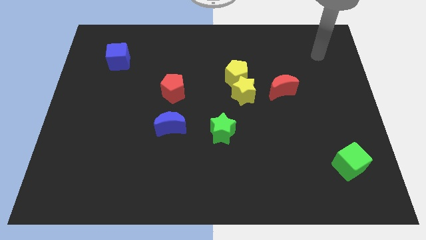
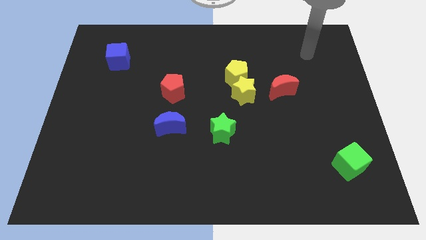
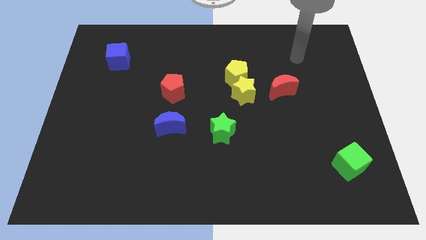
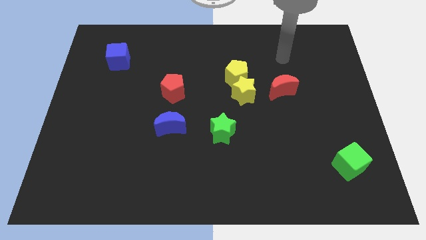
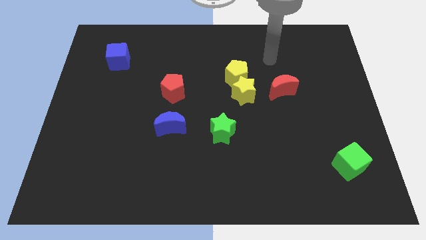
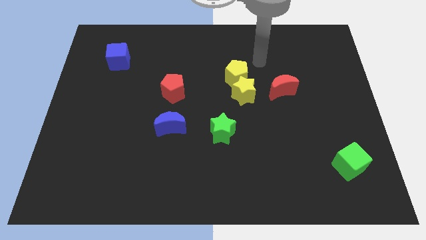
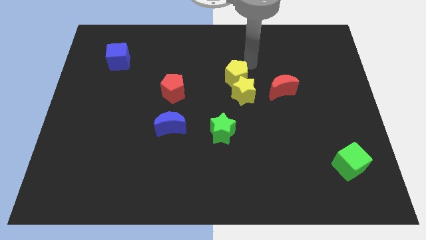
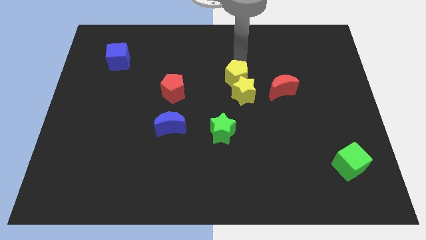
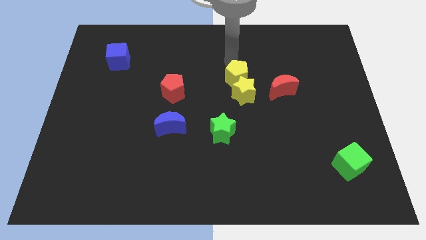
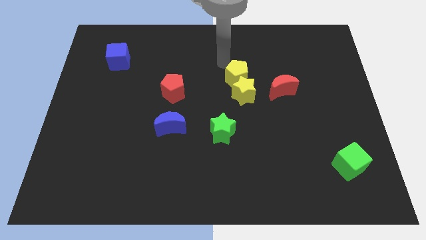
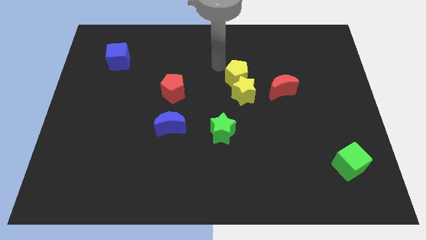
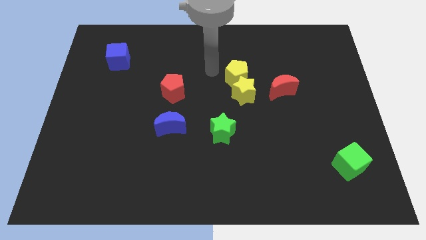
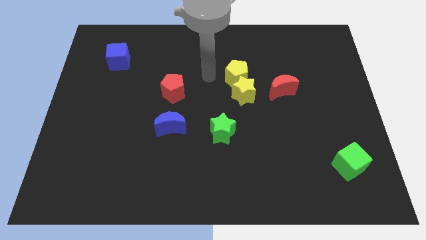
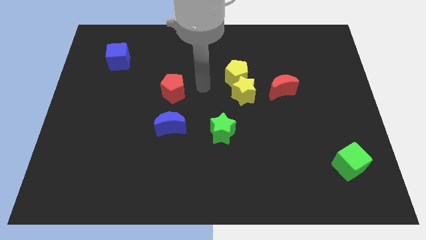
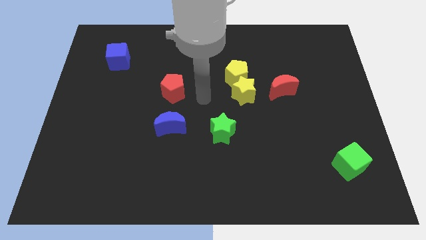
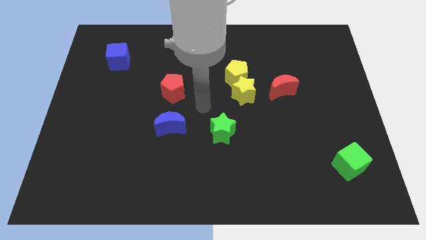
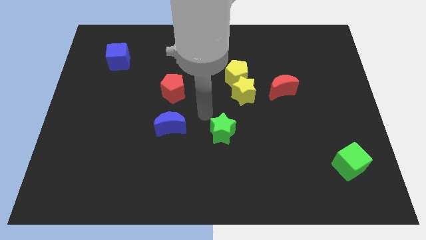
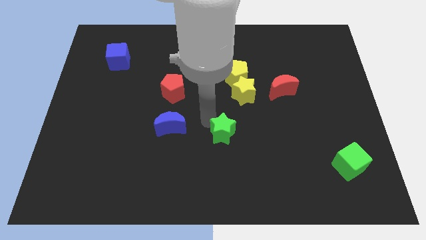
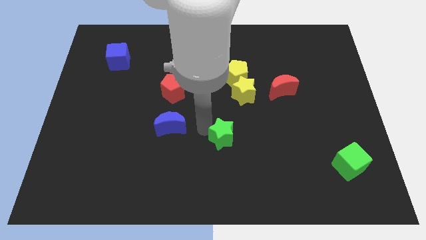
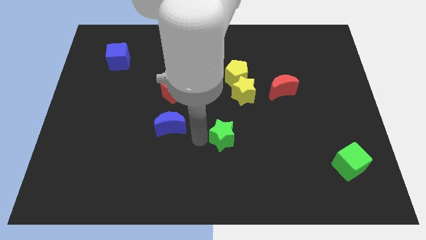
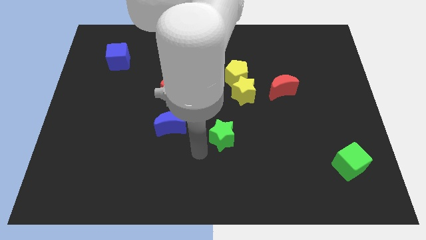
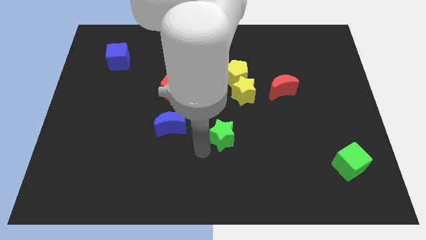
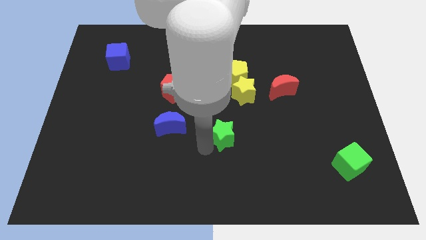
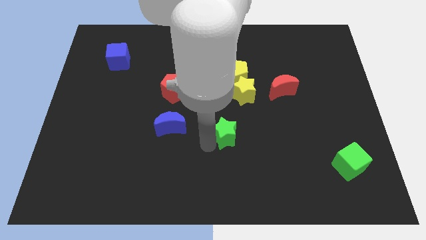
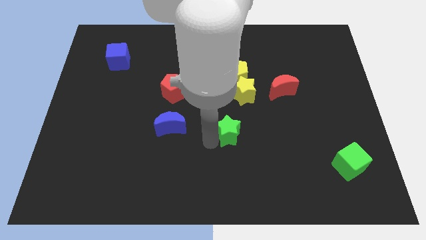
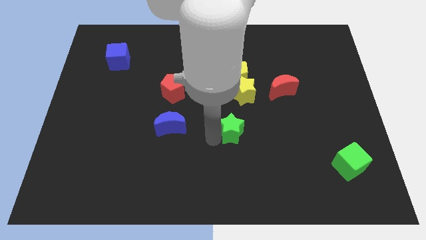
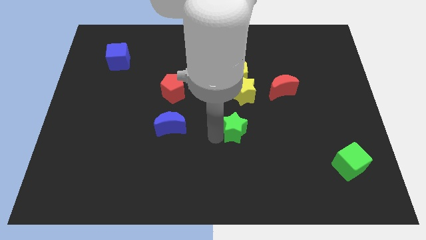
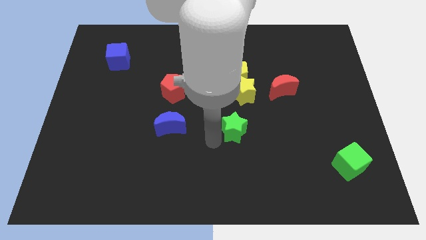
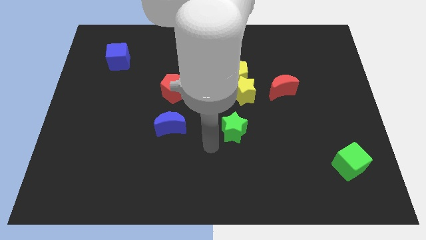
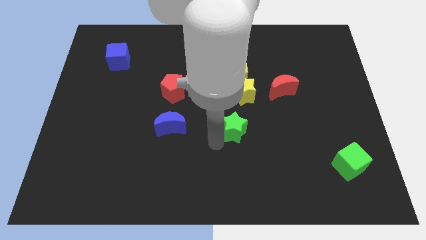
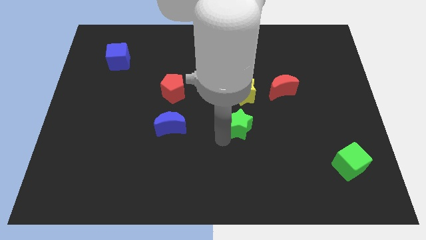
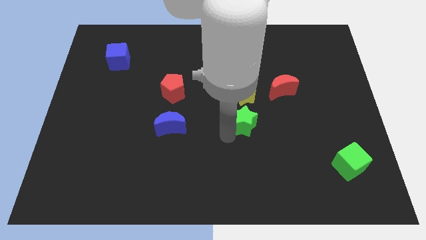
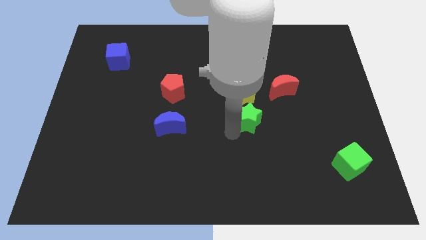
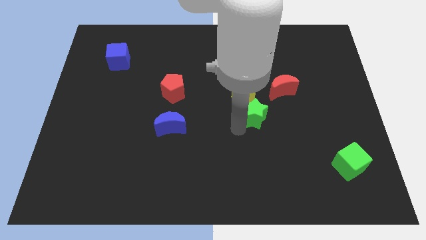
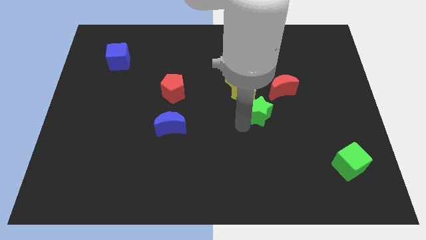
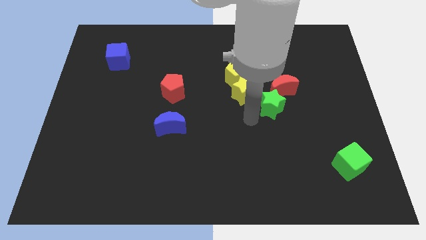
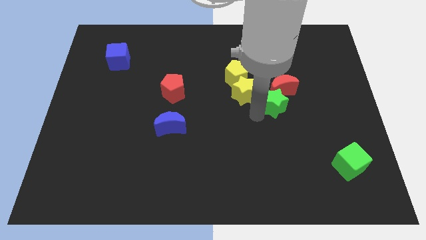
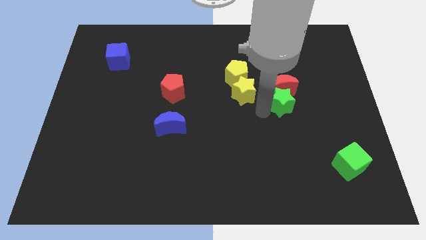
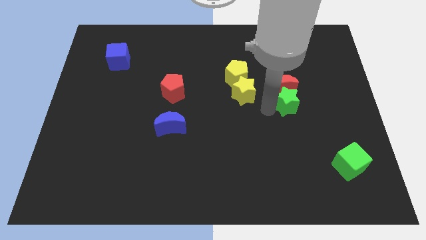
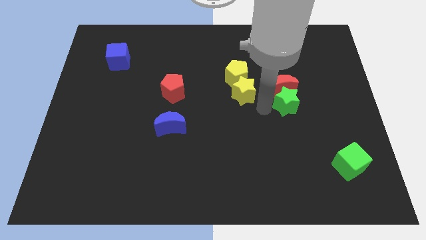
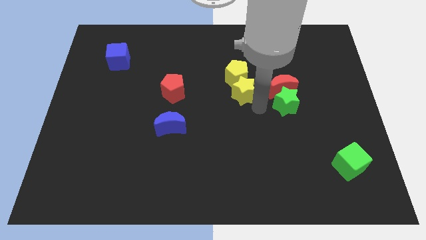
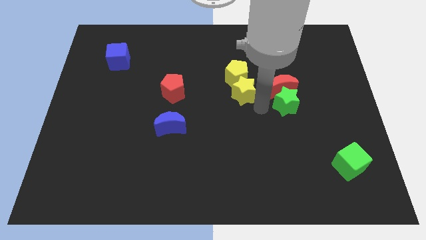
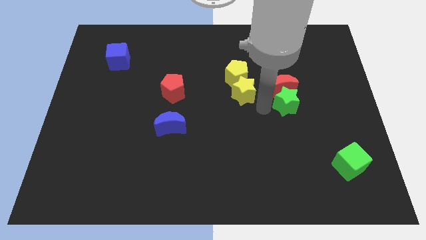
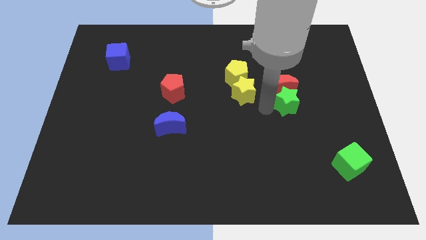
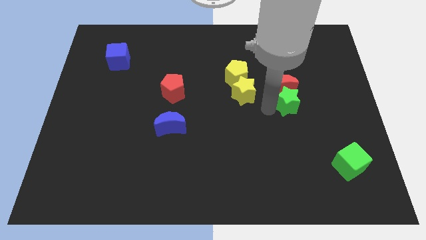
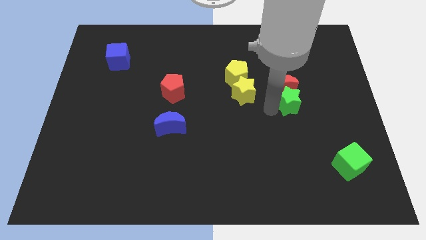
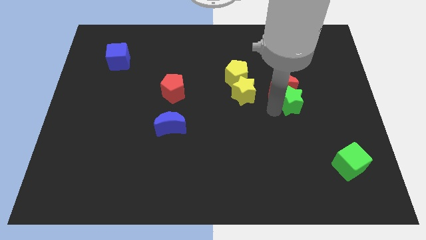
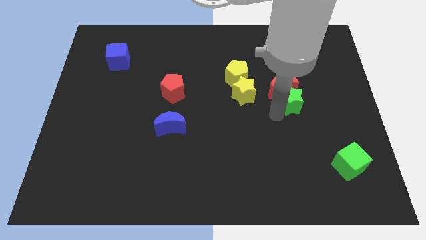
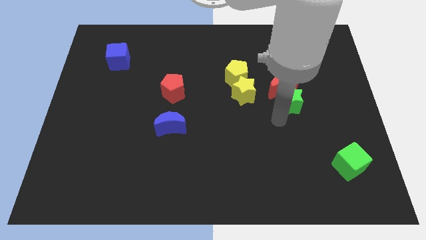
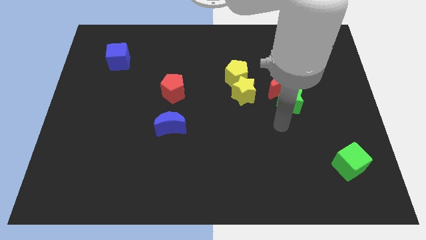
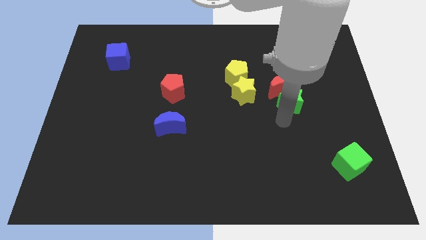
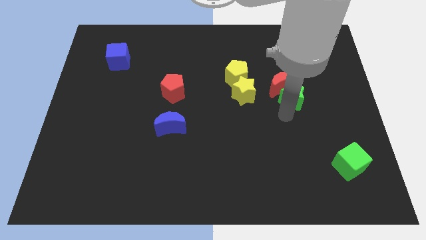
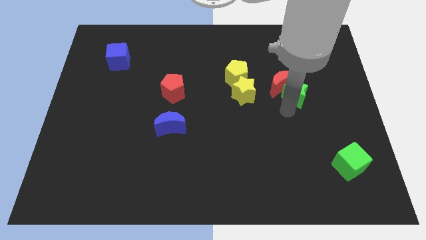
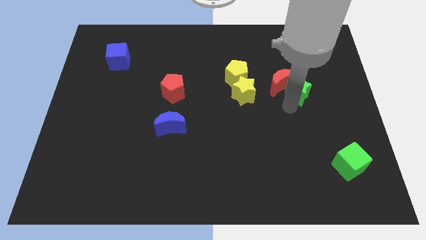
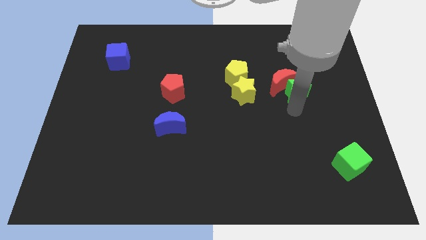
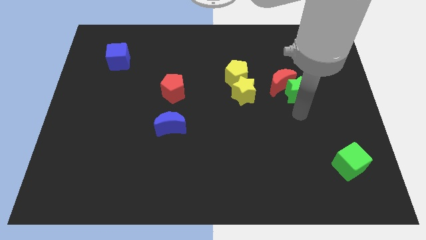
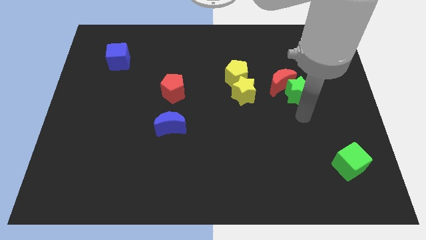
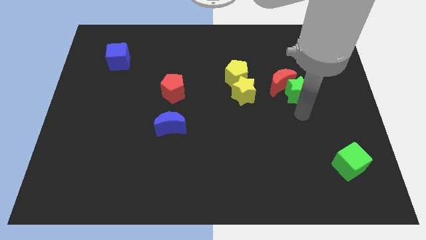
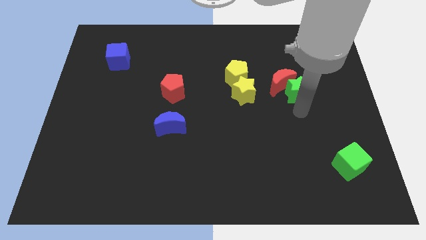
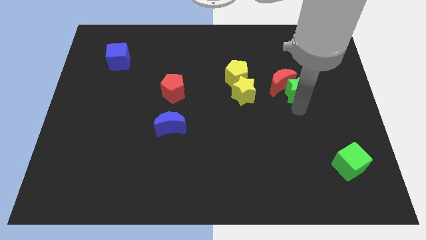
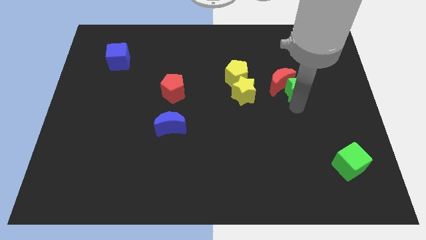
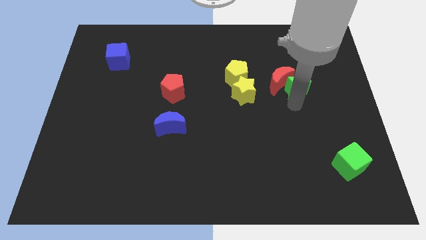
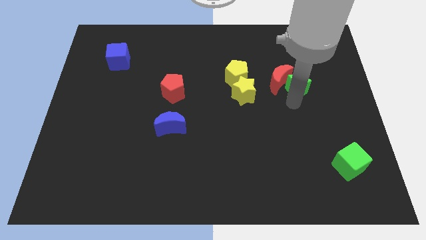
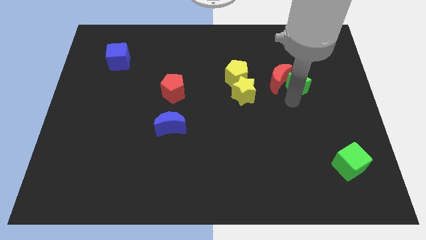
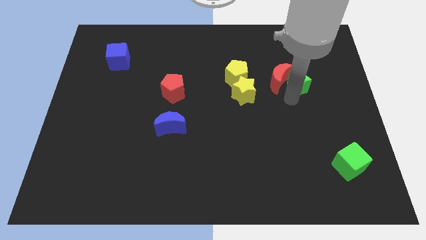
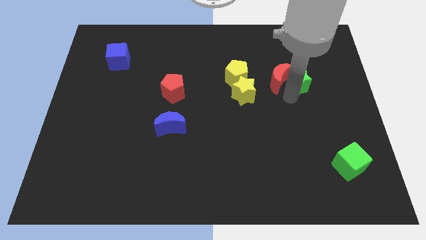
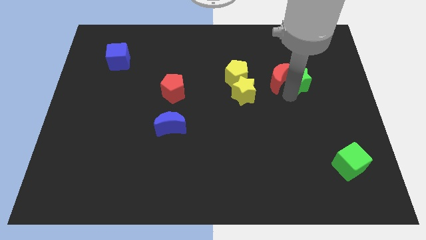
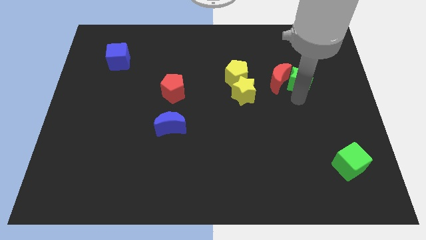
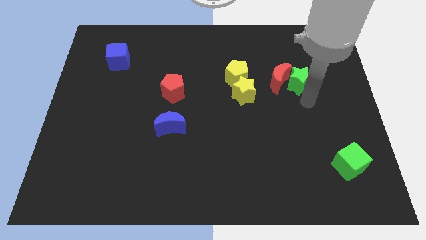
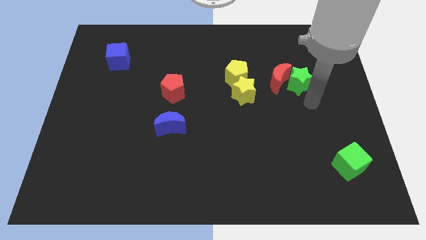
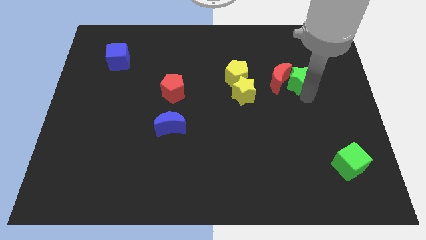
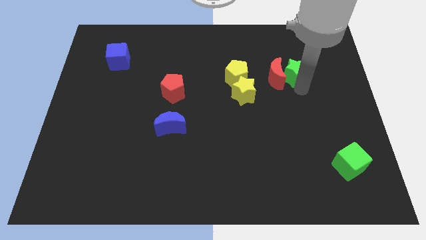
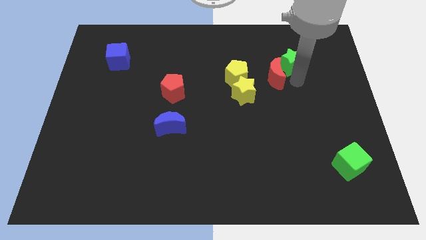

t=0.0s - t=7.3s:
push the green star to the top of the red moon
